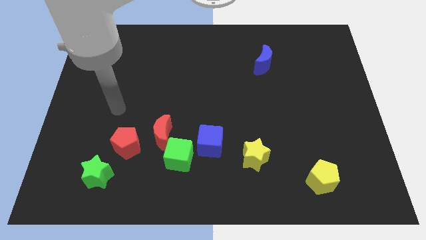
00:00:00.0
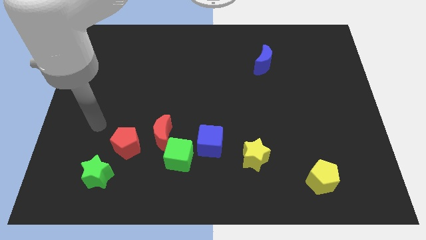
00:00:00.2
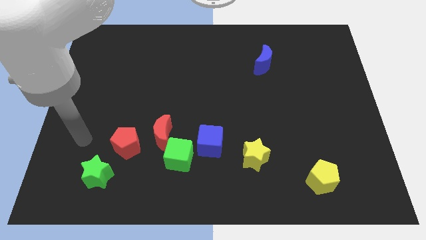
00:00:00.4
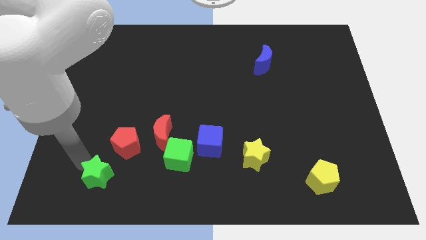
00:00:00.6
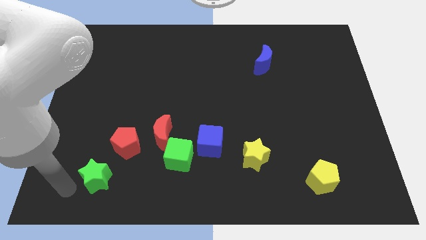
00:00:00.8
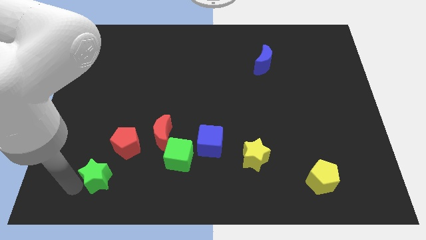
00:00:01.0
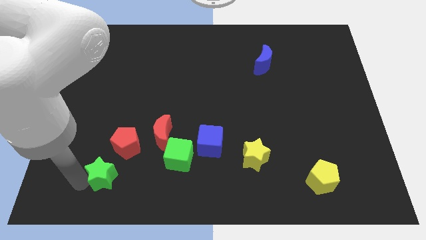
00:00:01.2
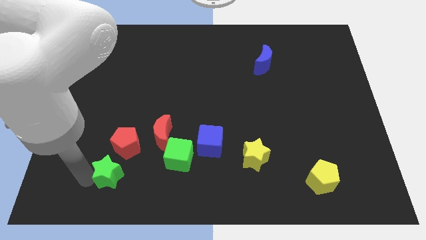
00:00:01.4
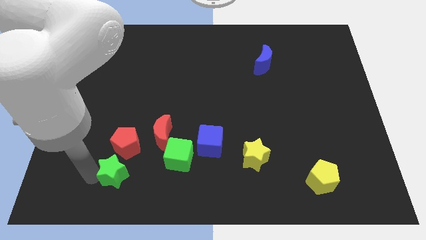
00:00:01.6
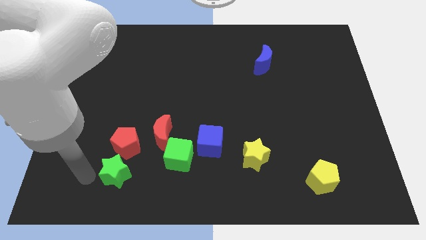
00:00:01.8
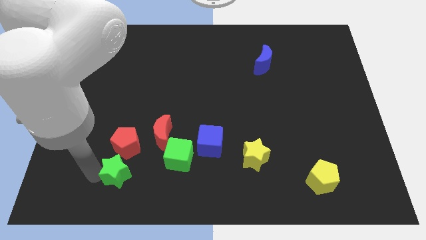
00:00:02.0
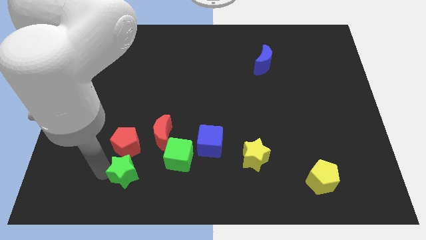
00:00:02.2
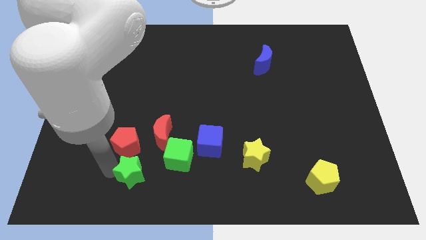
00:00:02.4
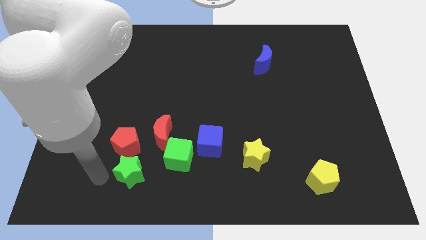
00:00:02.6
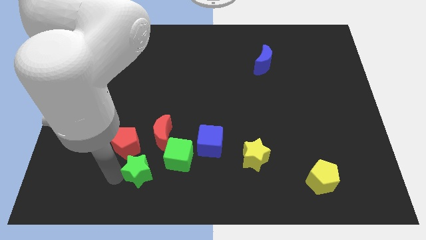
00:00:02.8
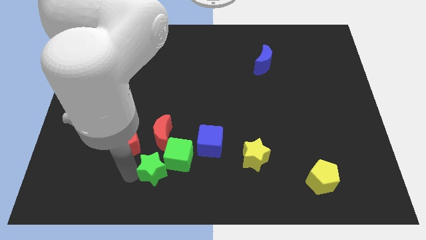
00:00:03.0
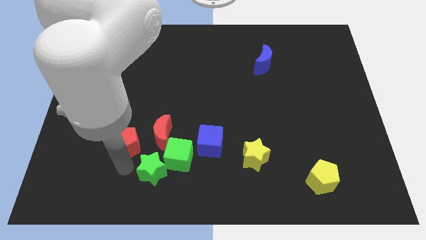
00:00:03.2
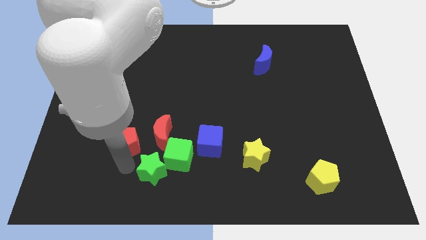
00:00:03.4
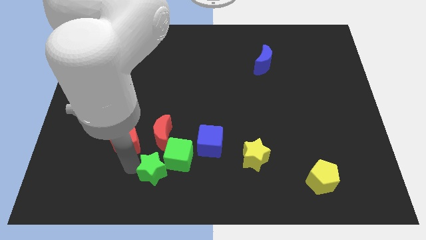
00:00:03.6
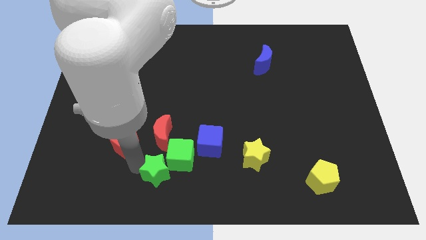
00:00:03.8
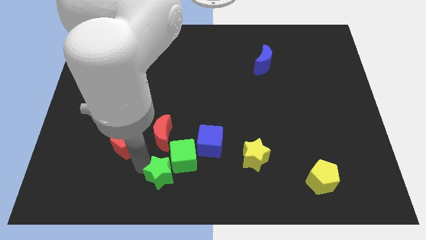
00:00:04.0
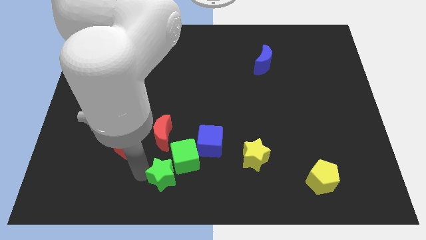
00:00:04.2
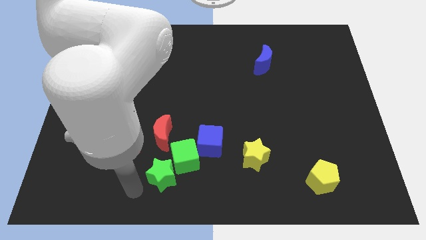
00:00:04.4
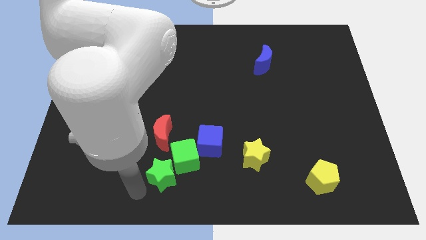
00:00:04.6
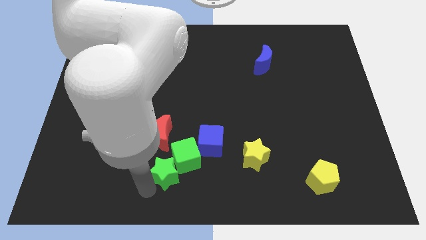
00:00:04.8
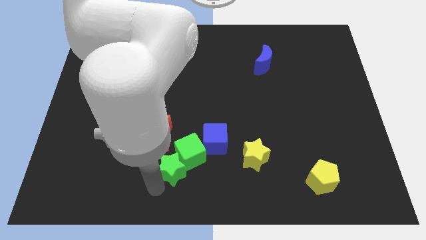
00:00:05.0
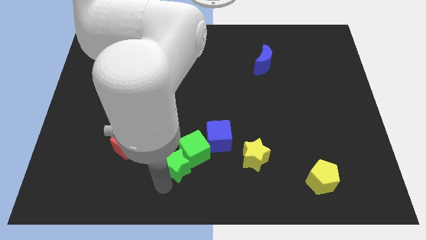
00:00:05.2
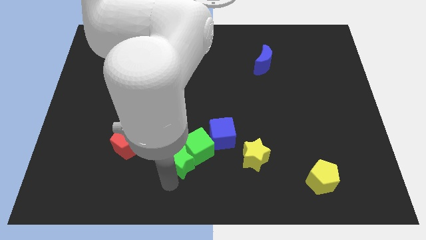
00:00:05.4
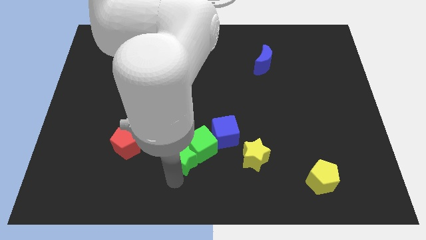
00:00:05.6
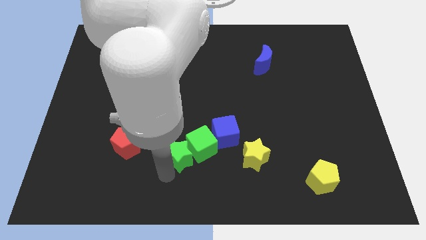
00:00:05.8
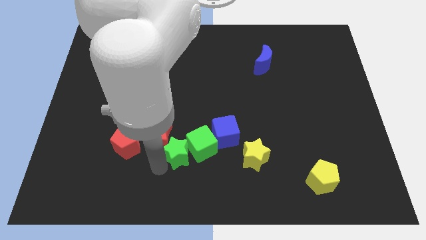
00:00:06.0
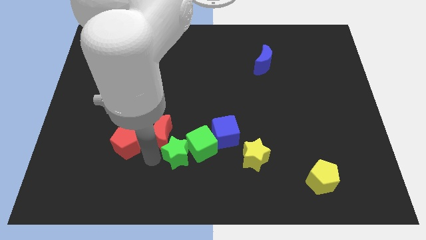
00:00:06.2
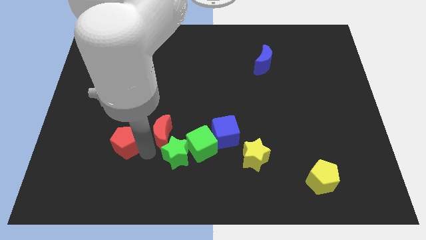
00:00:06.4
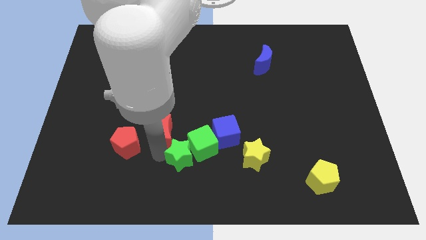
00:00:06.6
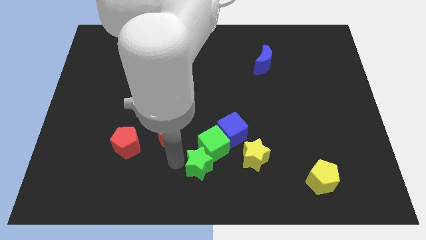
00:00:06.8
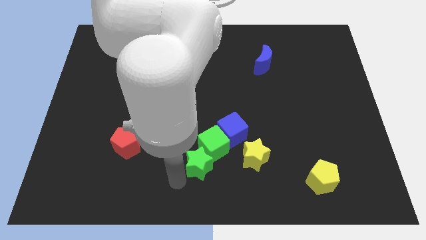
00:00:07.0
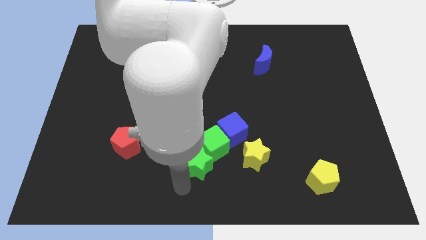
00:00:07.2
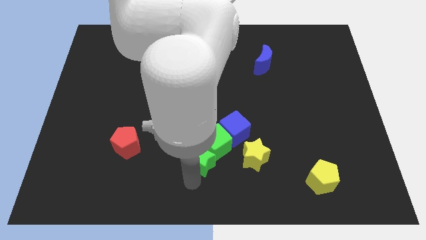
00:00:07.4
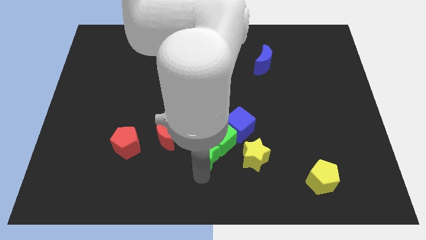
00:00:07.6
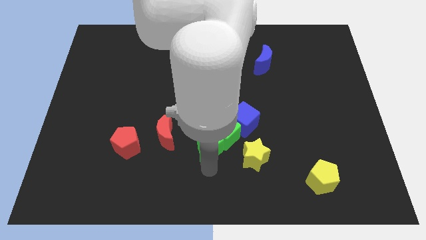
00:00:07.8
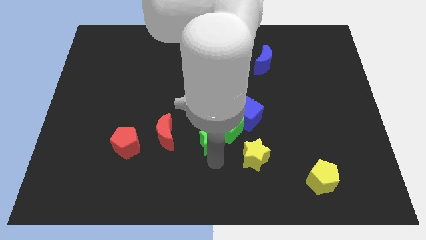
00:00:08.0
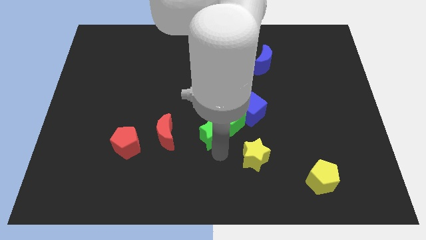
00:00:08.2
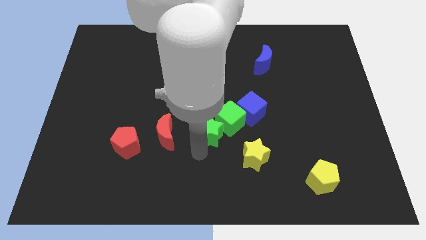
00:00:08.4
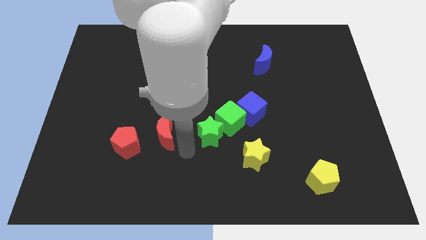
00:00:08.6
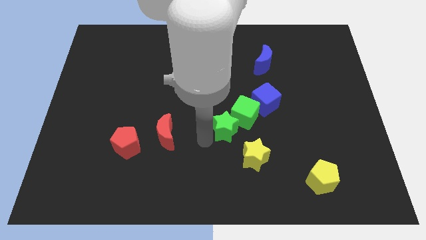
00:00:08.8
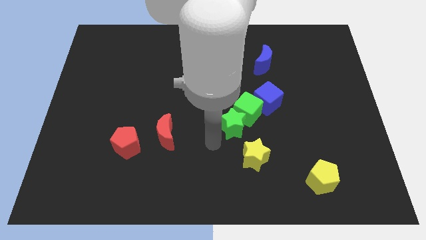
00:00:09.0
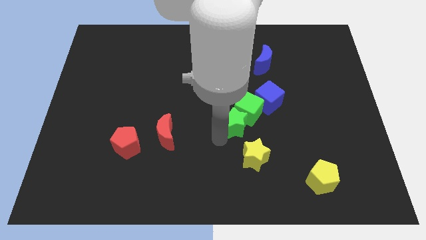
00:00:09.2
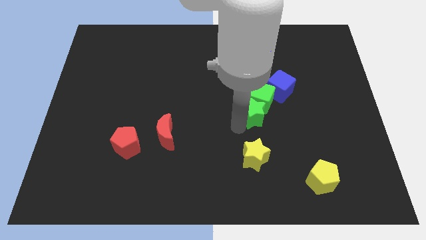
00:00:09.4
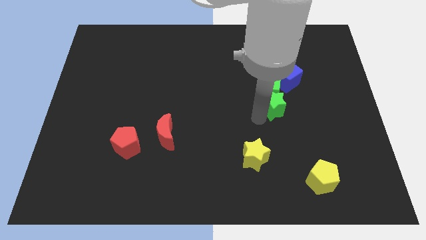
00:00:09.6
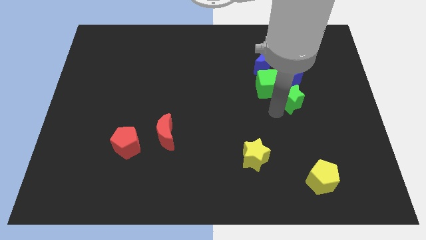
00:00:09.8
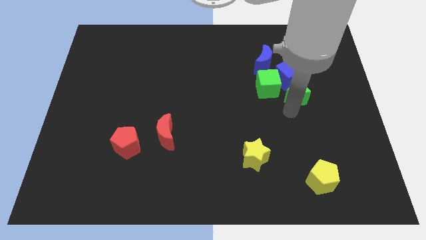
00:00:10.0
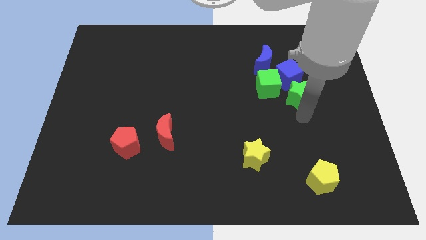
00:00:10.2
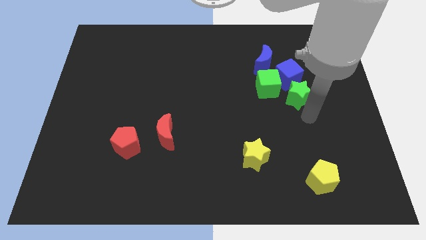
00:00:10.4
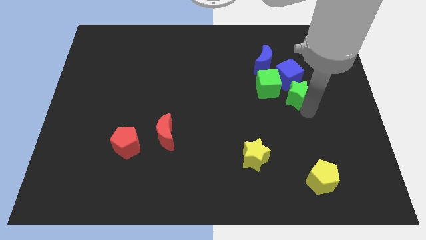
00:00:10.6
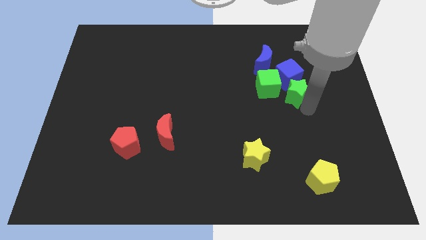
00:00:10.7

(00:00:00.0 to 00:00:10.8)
put the green star to the blue cube

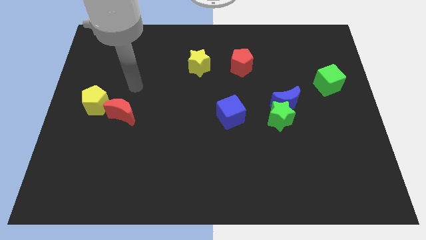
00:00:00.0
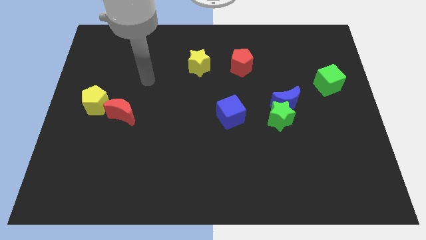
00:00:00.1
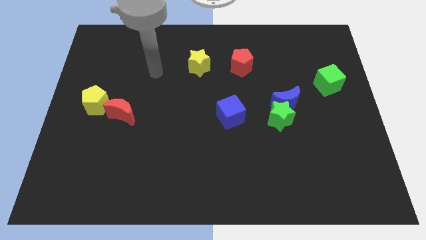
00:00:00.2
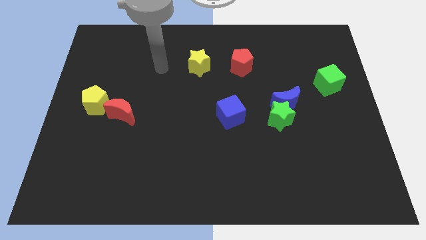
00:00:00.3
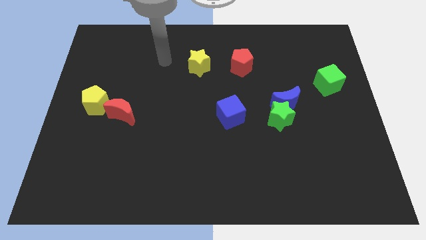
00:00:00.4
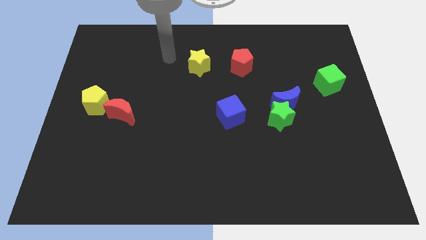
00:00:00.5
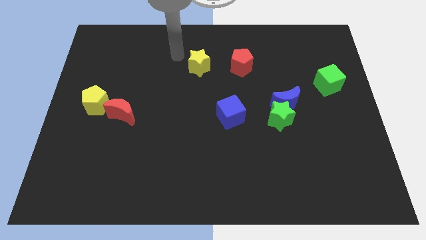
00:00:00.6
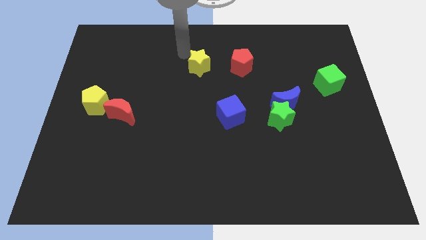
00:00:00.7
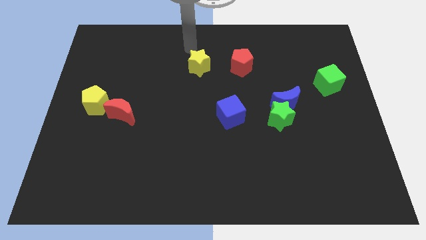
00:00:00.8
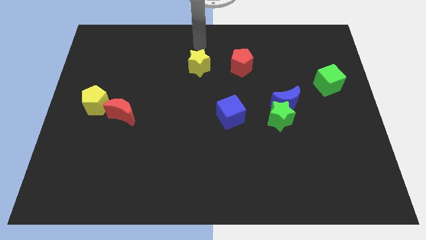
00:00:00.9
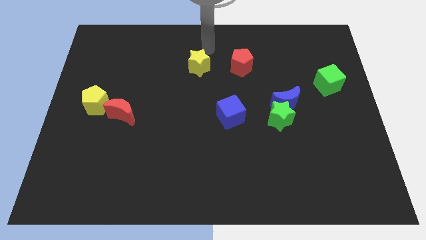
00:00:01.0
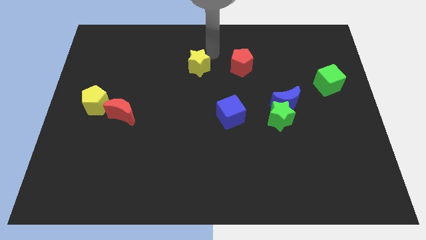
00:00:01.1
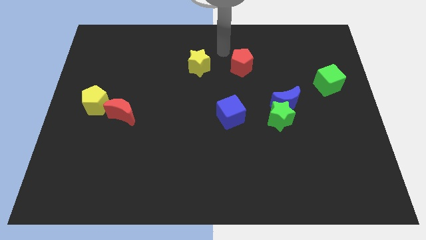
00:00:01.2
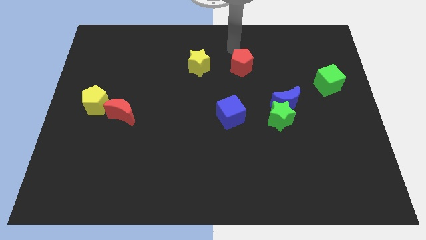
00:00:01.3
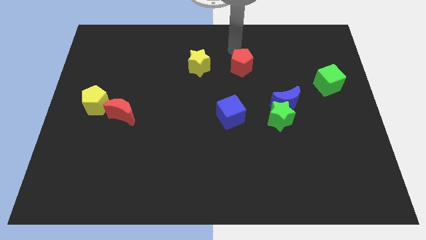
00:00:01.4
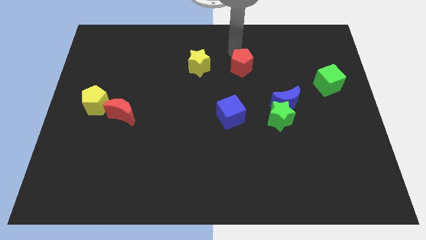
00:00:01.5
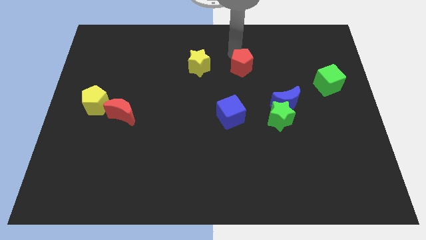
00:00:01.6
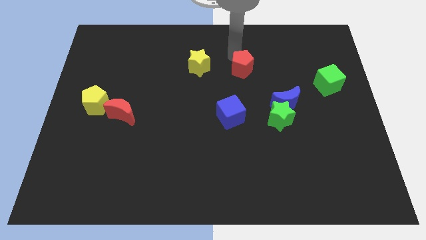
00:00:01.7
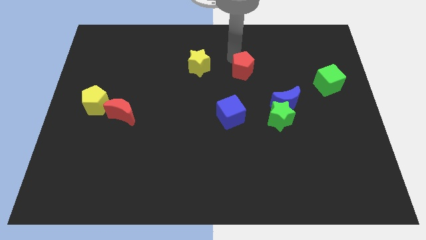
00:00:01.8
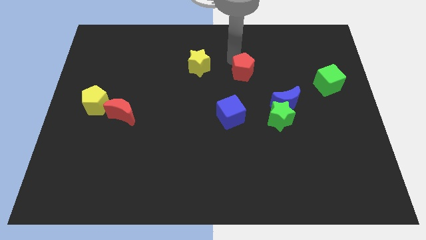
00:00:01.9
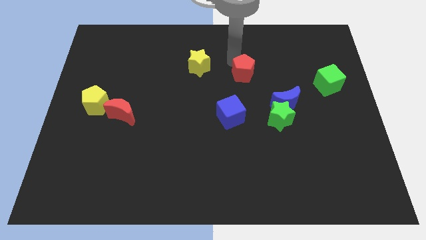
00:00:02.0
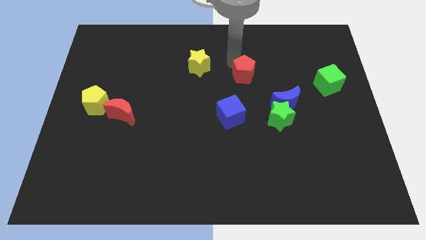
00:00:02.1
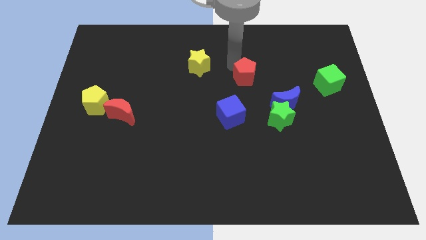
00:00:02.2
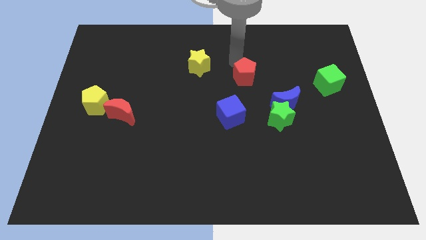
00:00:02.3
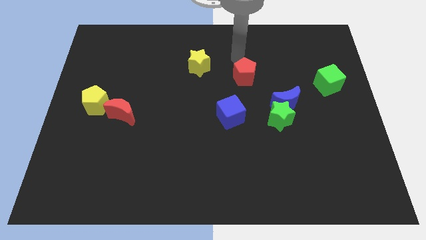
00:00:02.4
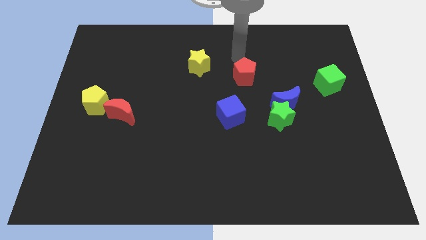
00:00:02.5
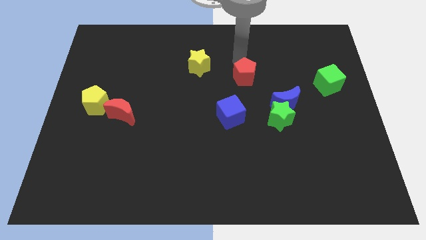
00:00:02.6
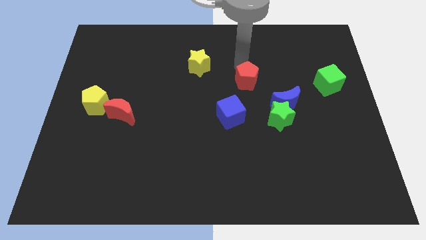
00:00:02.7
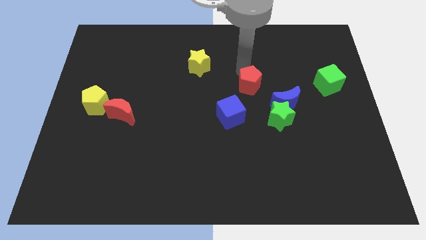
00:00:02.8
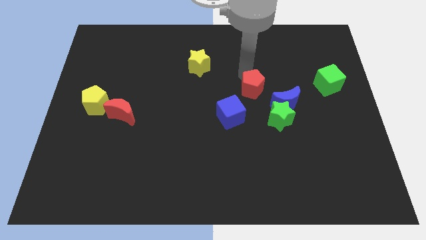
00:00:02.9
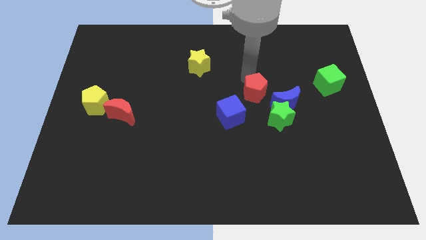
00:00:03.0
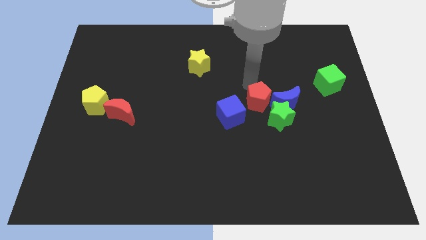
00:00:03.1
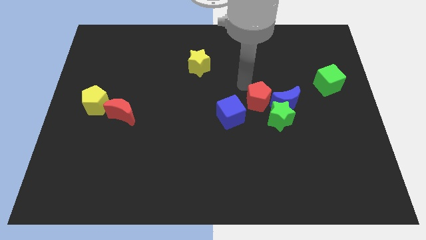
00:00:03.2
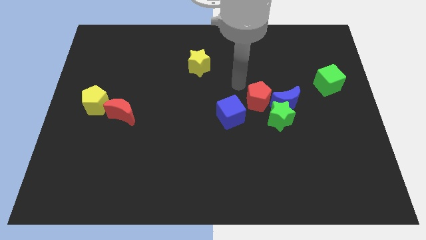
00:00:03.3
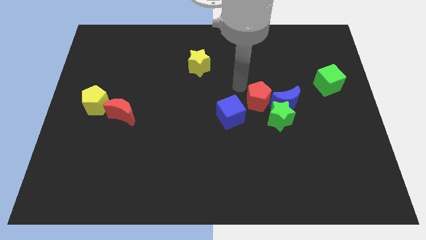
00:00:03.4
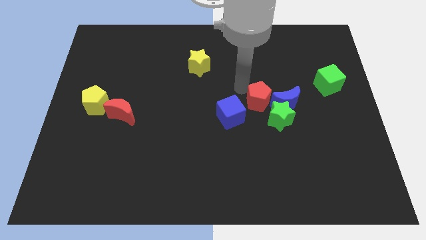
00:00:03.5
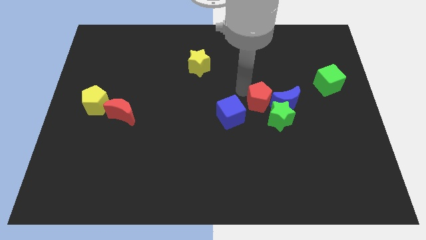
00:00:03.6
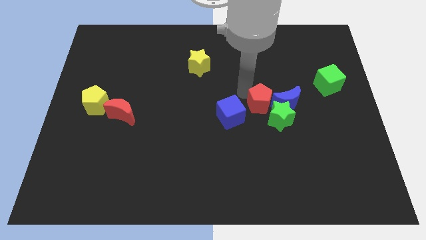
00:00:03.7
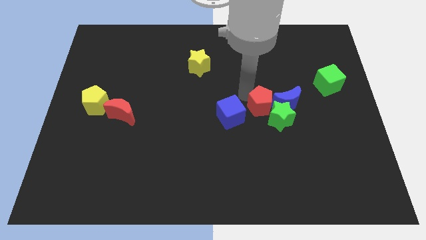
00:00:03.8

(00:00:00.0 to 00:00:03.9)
push the red pentagon next to the green star
